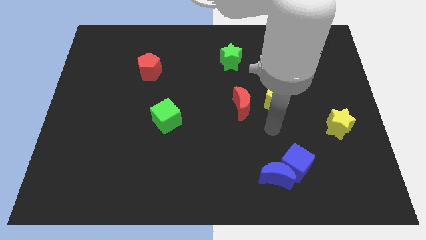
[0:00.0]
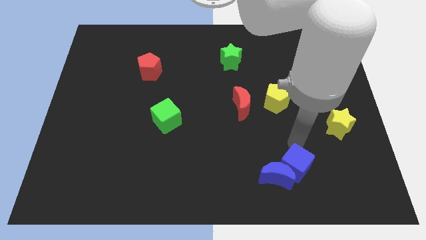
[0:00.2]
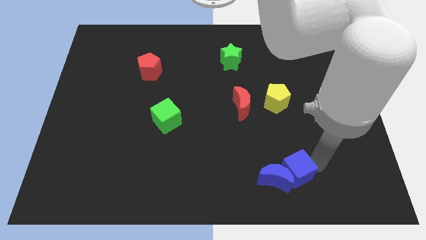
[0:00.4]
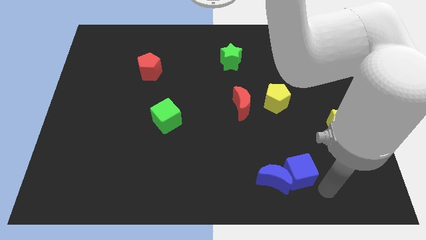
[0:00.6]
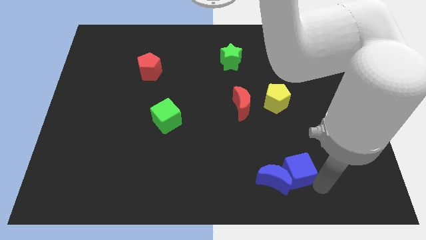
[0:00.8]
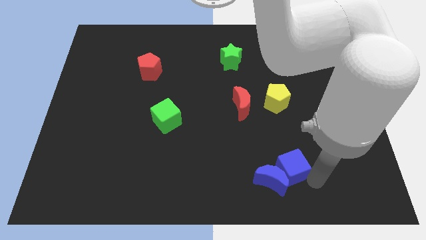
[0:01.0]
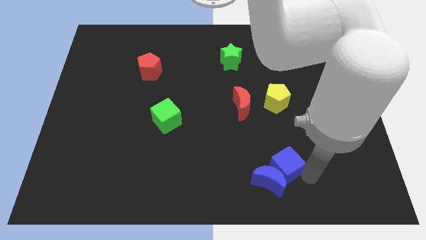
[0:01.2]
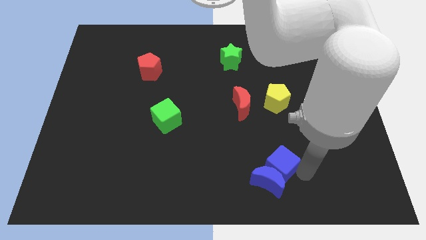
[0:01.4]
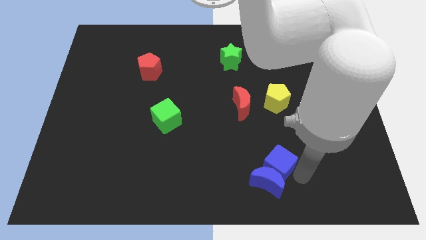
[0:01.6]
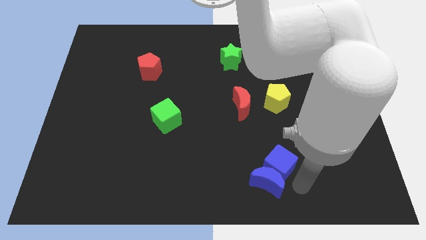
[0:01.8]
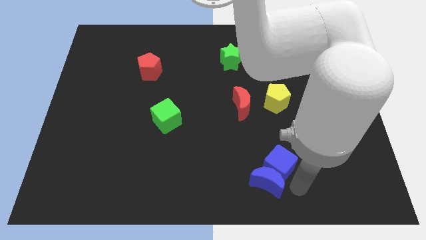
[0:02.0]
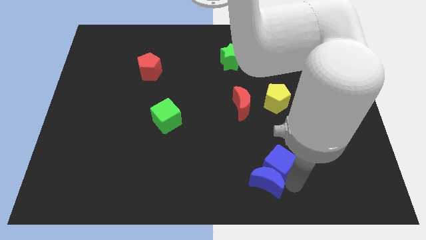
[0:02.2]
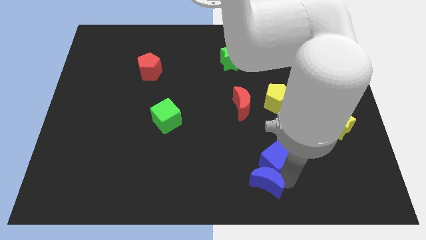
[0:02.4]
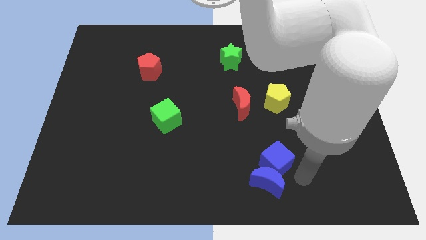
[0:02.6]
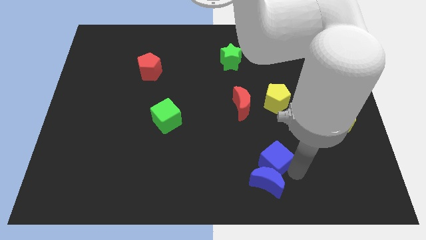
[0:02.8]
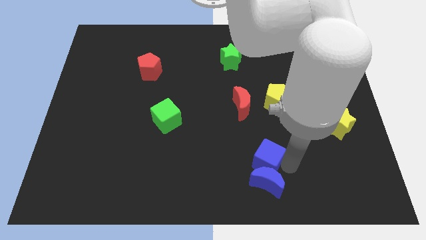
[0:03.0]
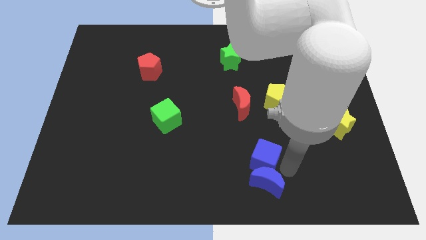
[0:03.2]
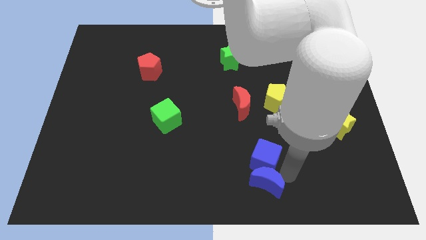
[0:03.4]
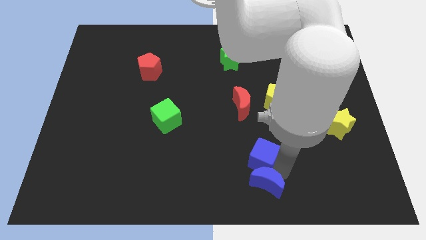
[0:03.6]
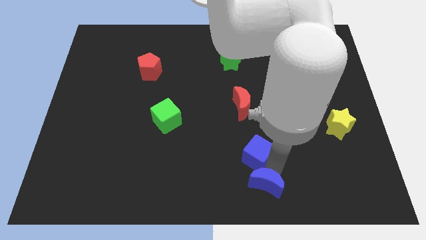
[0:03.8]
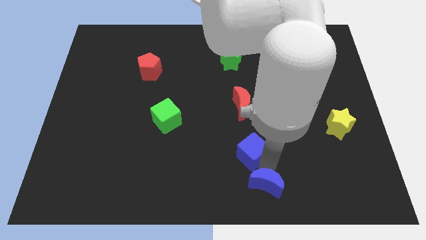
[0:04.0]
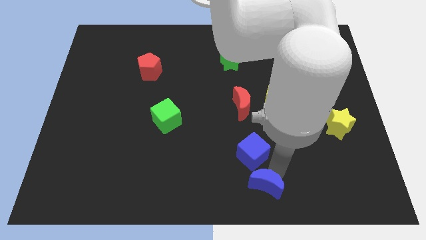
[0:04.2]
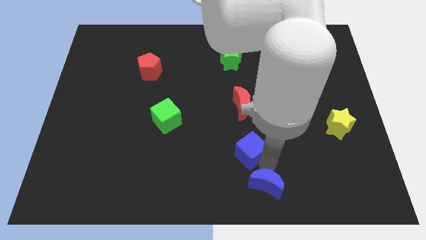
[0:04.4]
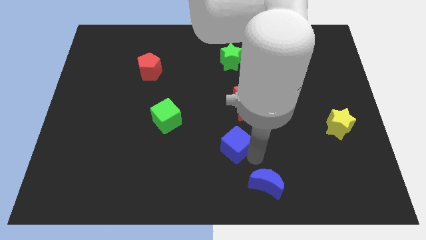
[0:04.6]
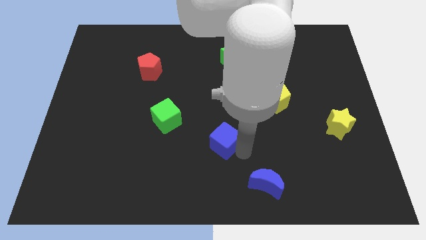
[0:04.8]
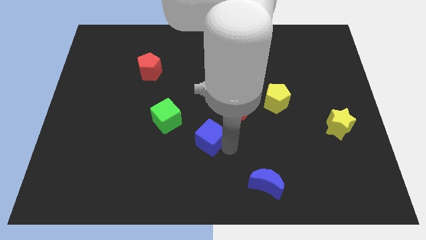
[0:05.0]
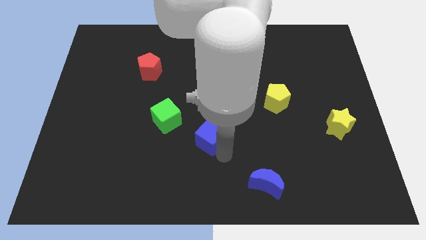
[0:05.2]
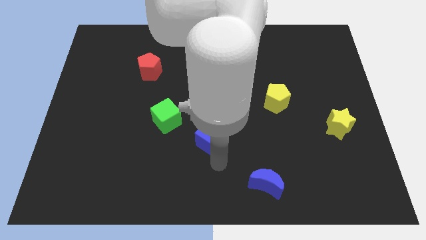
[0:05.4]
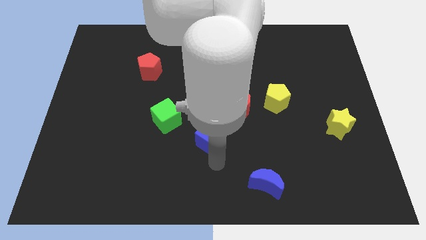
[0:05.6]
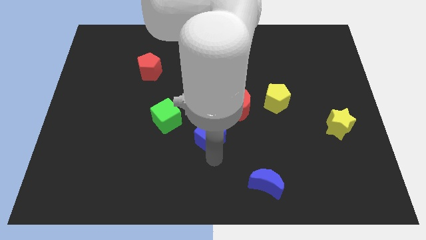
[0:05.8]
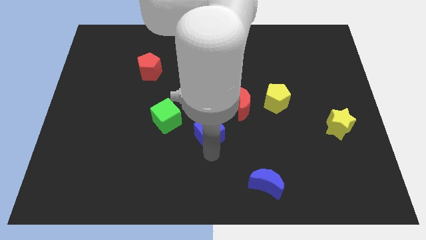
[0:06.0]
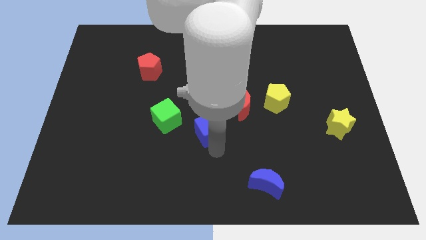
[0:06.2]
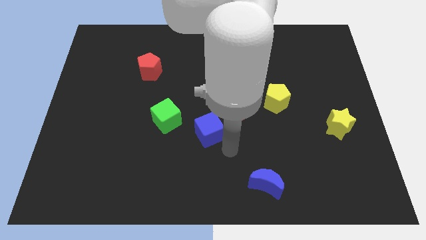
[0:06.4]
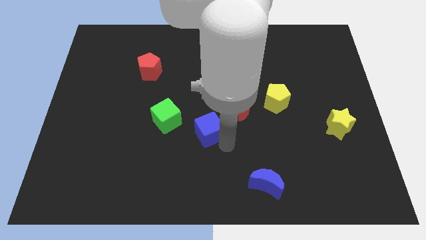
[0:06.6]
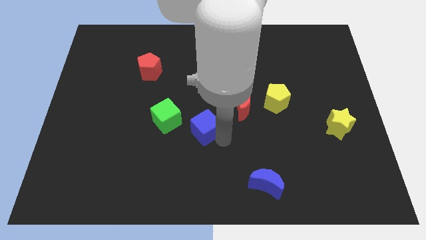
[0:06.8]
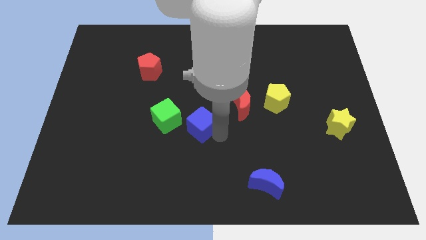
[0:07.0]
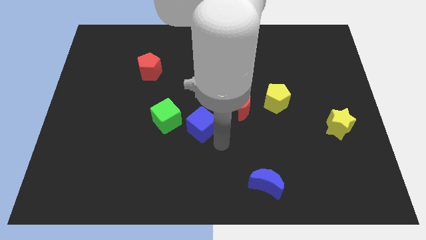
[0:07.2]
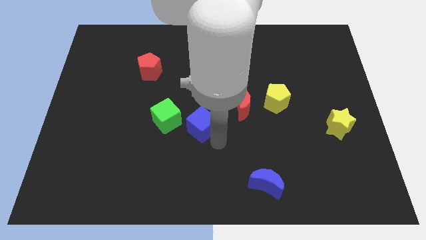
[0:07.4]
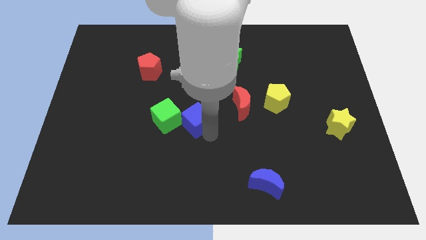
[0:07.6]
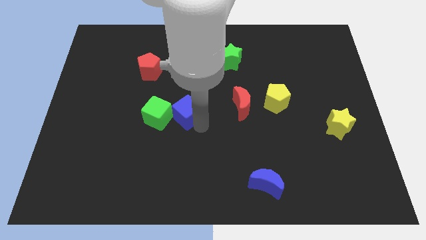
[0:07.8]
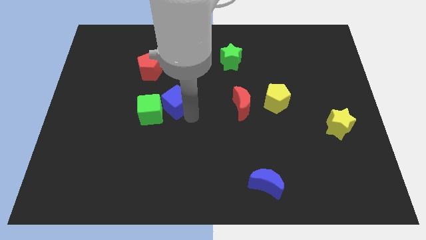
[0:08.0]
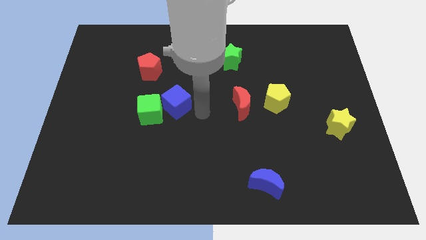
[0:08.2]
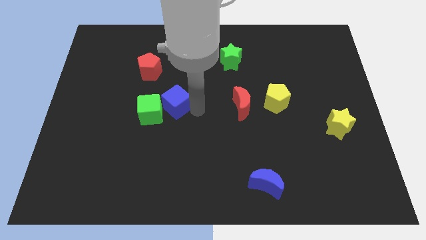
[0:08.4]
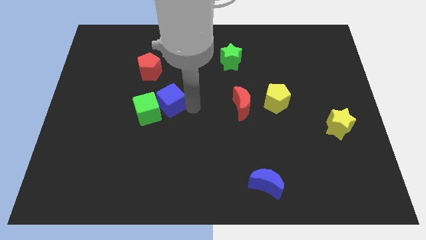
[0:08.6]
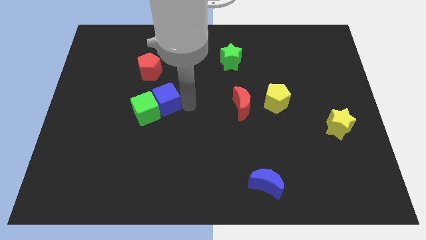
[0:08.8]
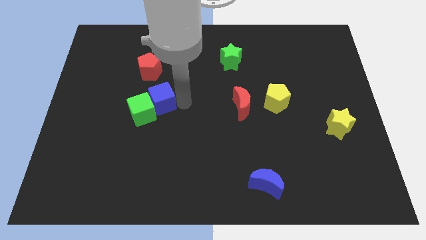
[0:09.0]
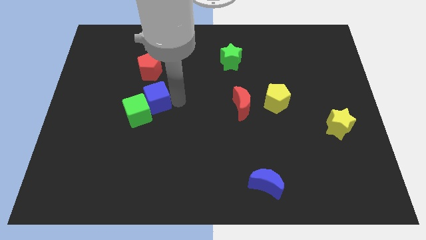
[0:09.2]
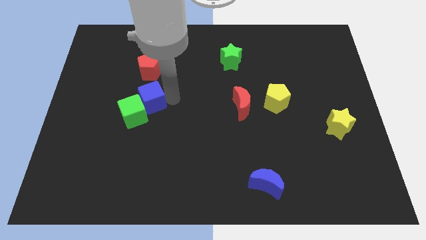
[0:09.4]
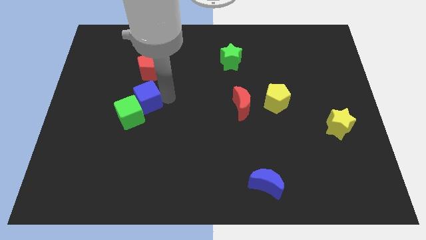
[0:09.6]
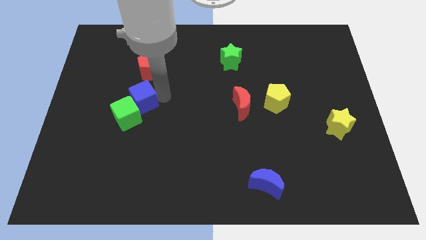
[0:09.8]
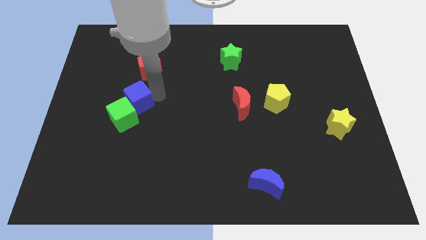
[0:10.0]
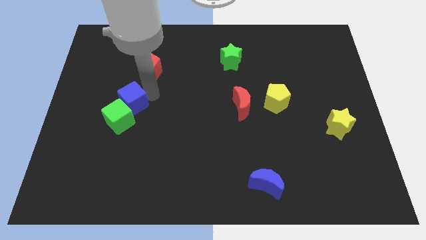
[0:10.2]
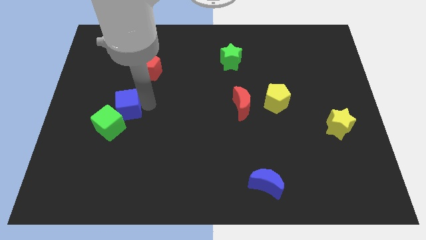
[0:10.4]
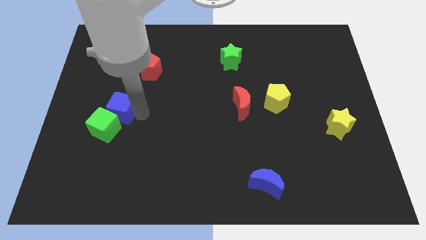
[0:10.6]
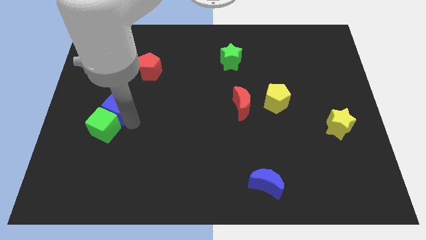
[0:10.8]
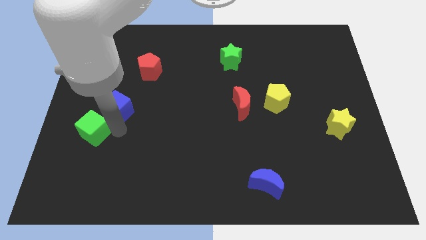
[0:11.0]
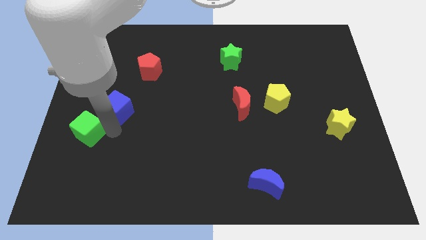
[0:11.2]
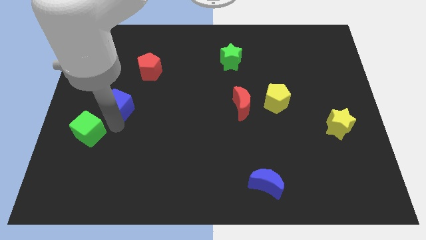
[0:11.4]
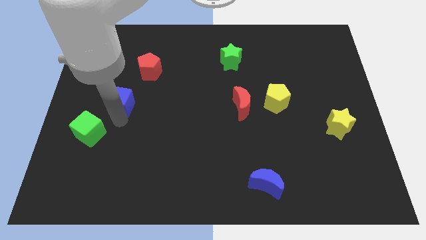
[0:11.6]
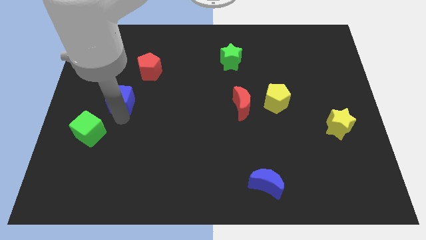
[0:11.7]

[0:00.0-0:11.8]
push the blue cube to the bottom left side of the red pentagon

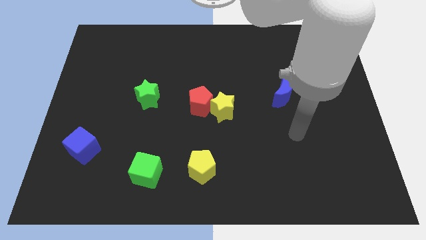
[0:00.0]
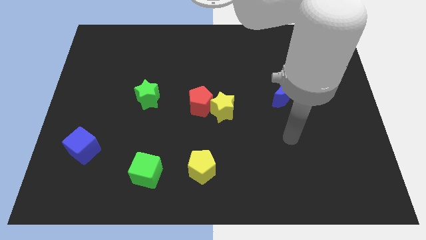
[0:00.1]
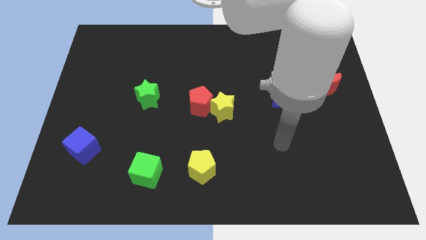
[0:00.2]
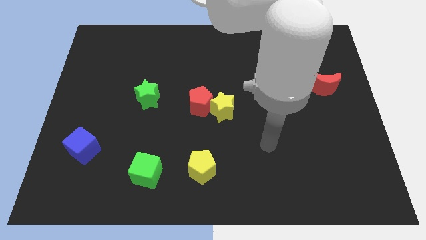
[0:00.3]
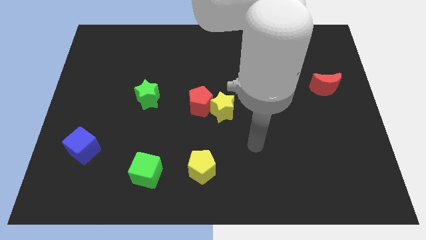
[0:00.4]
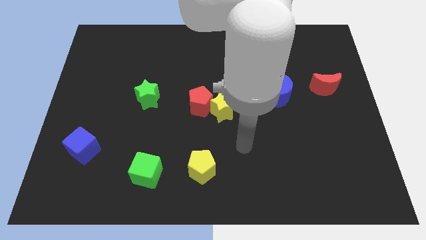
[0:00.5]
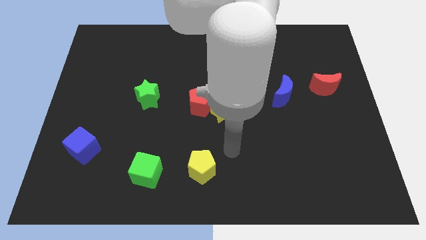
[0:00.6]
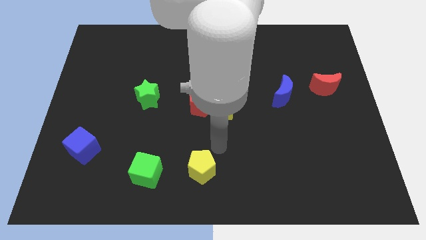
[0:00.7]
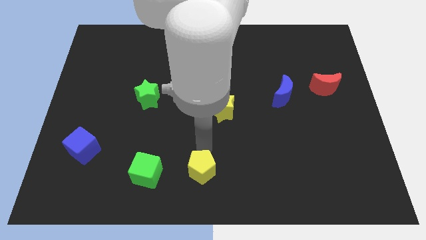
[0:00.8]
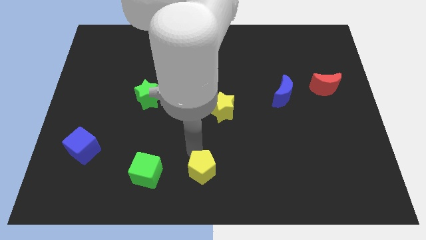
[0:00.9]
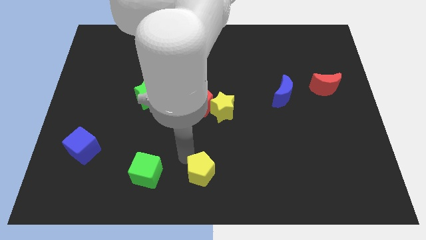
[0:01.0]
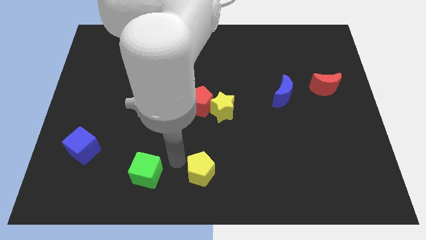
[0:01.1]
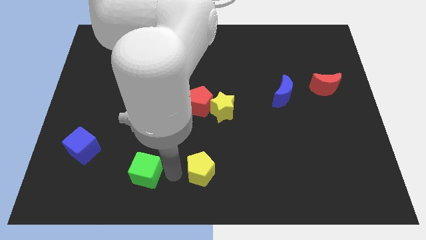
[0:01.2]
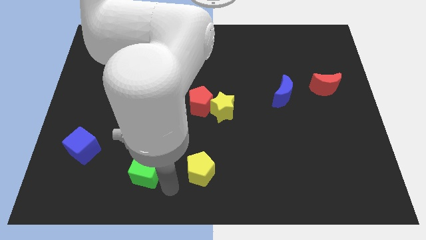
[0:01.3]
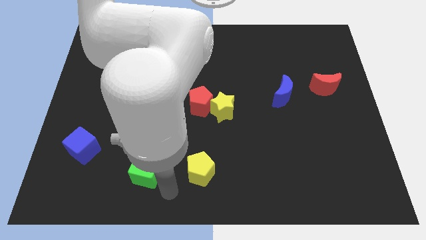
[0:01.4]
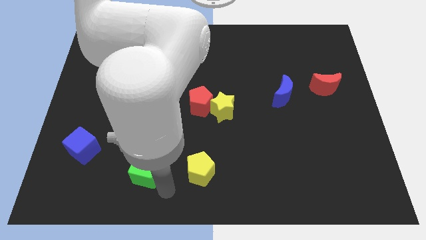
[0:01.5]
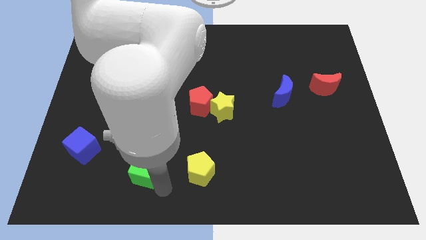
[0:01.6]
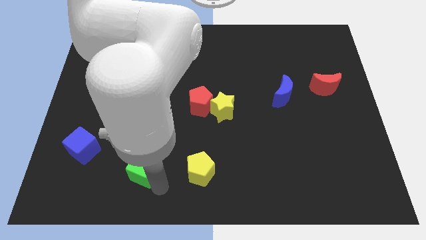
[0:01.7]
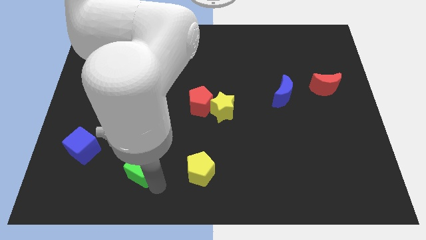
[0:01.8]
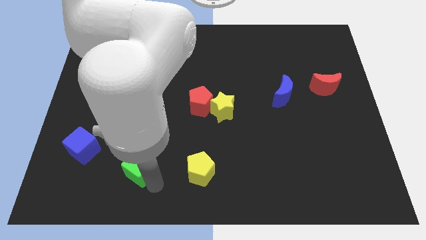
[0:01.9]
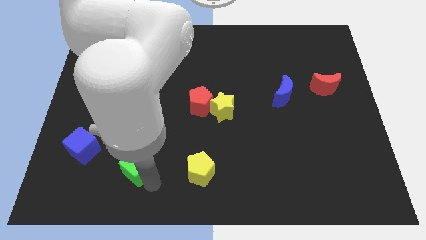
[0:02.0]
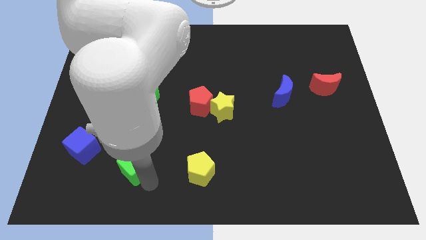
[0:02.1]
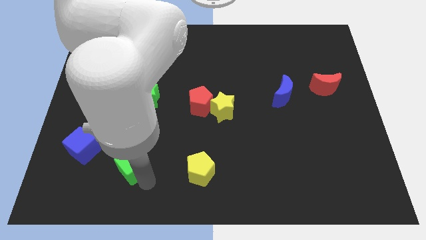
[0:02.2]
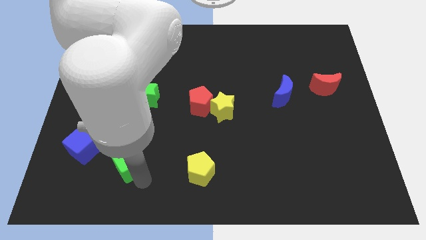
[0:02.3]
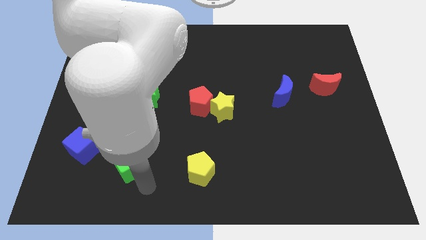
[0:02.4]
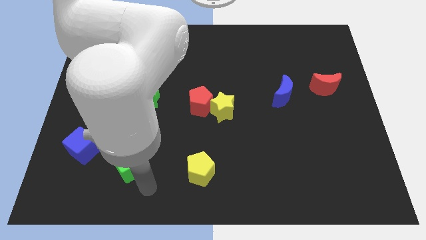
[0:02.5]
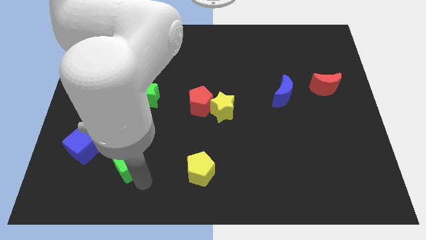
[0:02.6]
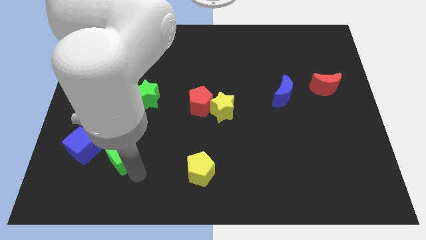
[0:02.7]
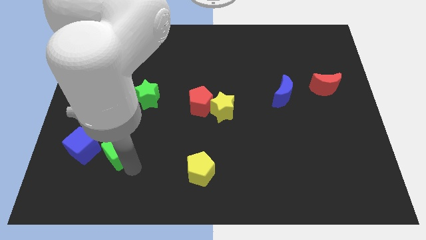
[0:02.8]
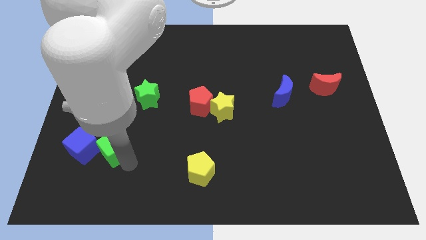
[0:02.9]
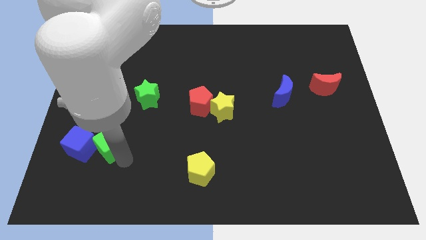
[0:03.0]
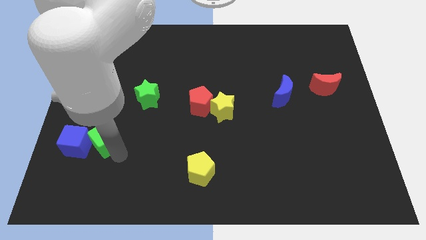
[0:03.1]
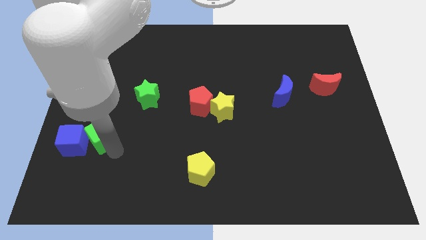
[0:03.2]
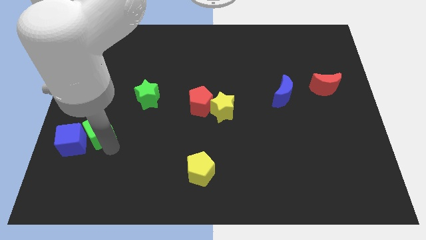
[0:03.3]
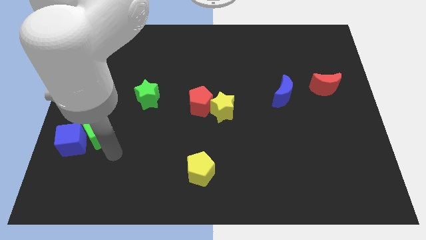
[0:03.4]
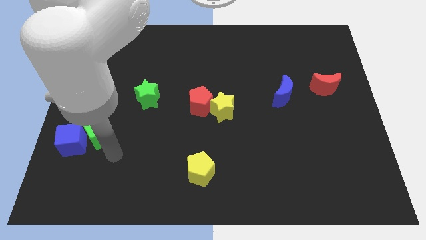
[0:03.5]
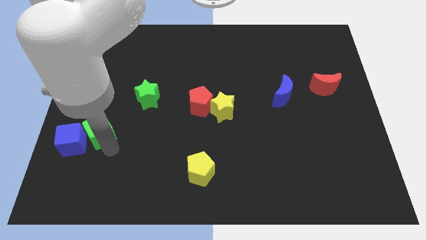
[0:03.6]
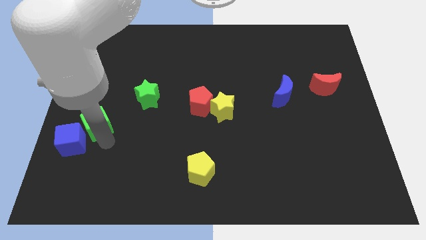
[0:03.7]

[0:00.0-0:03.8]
push the green cube to the top of the blue cube
